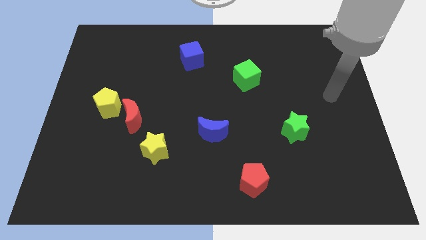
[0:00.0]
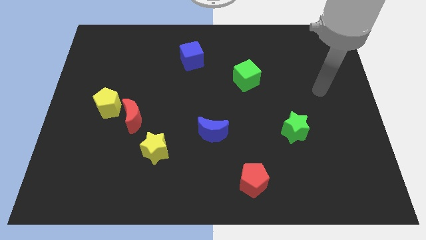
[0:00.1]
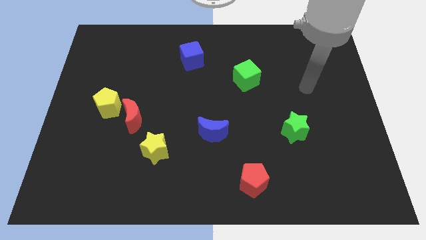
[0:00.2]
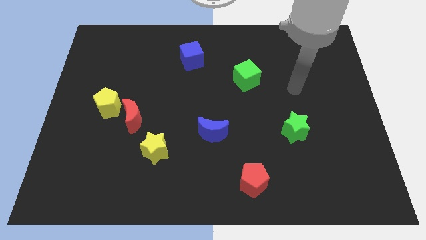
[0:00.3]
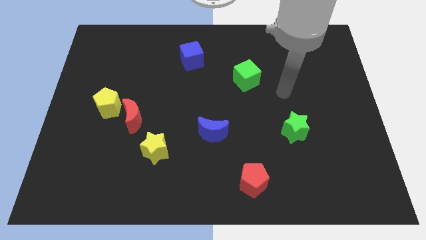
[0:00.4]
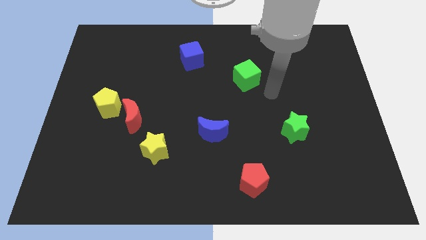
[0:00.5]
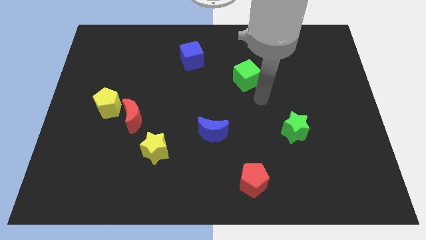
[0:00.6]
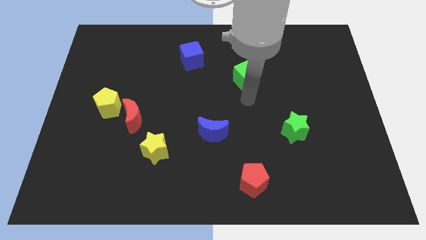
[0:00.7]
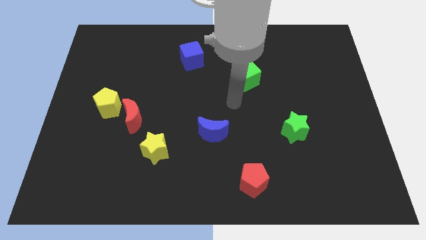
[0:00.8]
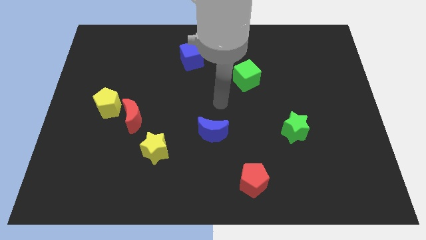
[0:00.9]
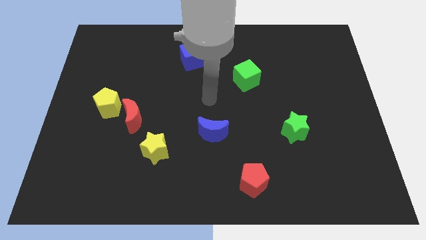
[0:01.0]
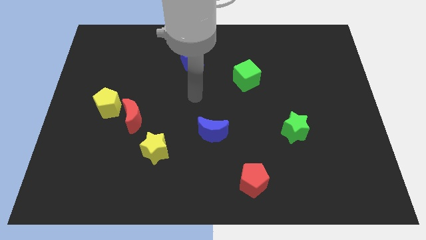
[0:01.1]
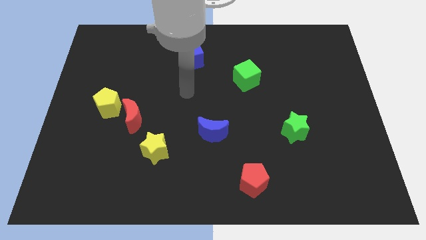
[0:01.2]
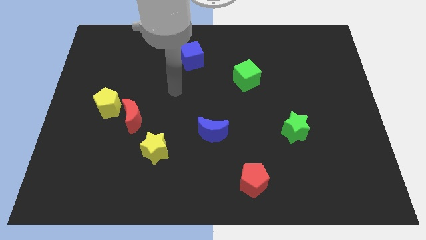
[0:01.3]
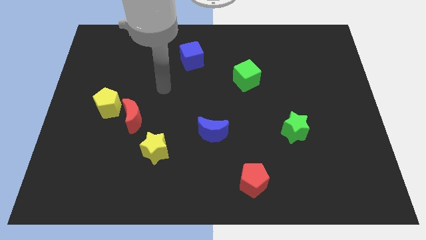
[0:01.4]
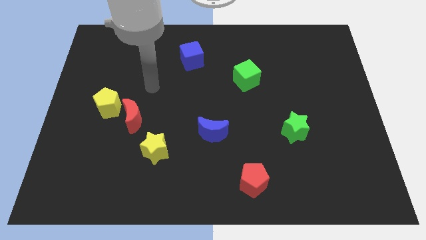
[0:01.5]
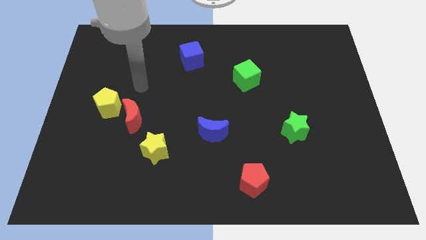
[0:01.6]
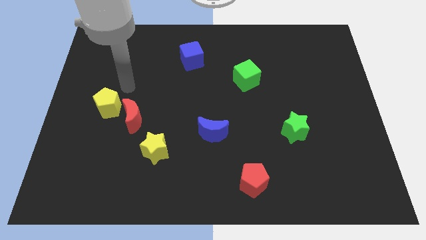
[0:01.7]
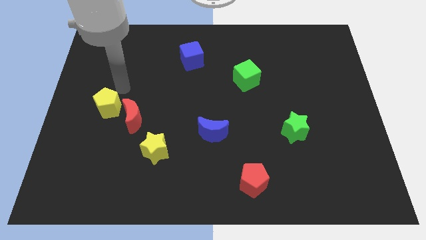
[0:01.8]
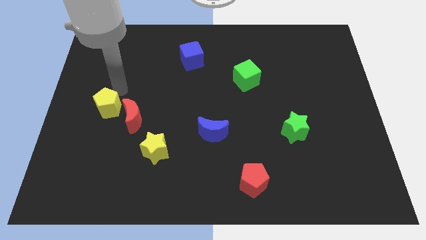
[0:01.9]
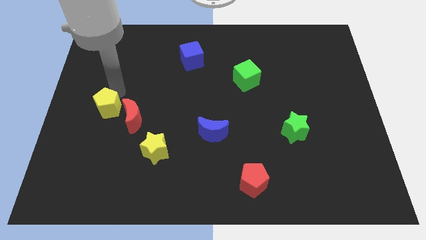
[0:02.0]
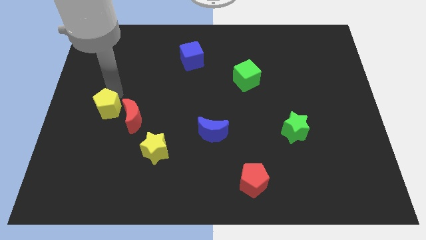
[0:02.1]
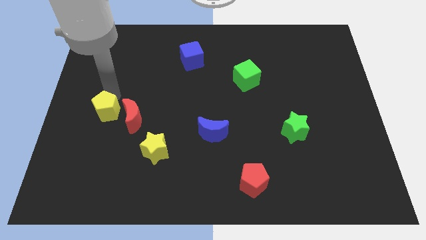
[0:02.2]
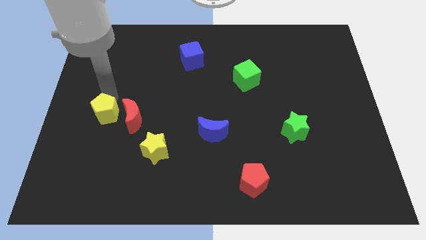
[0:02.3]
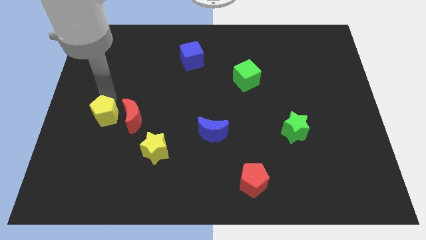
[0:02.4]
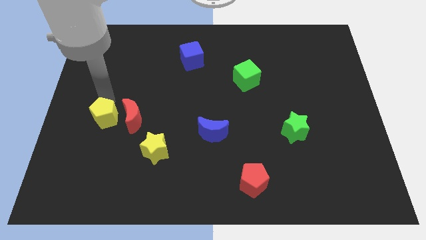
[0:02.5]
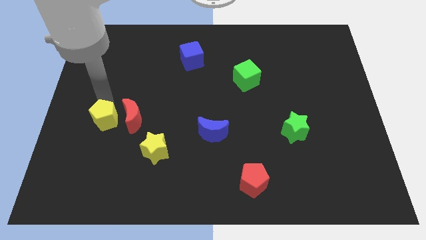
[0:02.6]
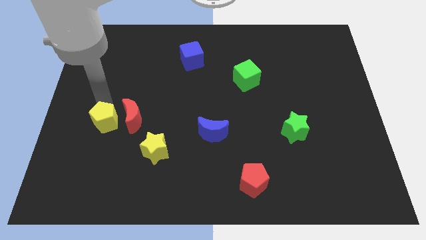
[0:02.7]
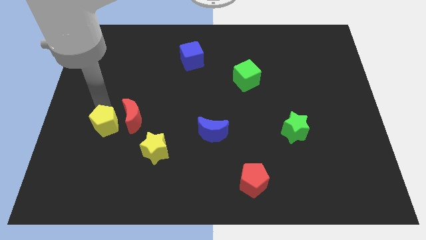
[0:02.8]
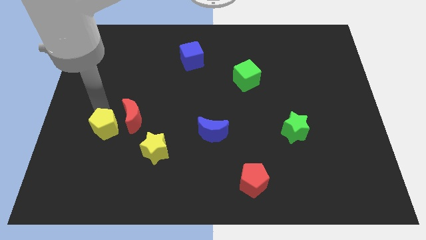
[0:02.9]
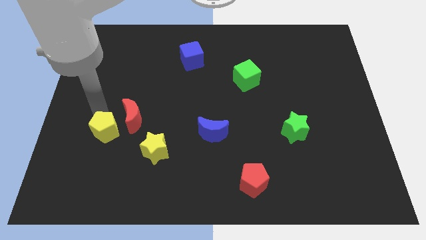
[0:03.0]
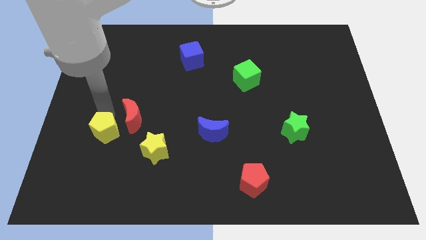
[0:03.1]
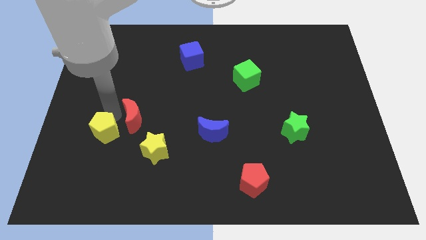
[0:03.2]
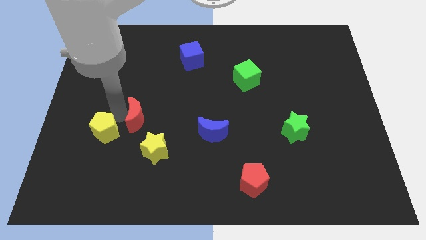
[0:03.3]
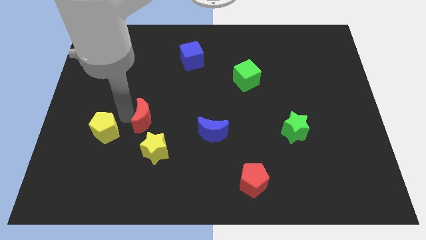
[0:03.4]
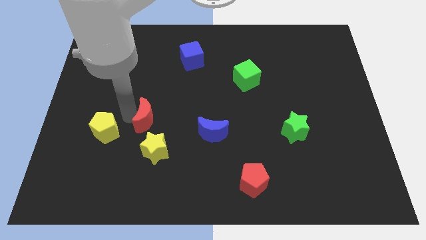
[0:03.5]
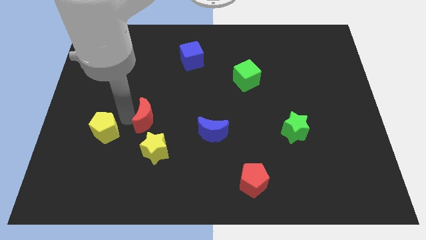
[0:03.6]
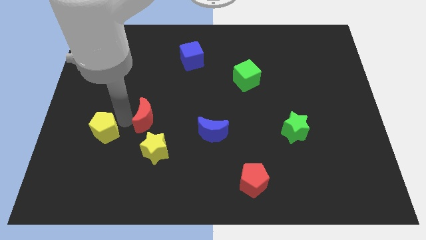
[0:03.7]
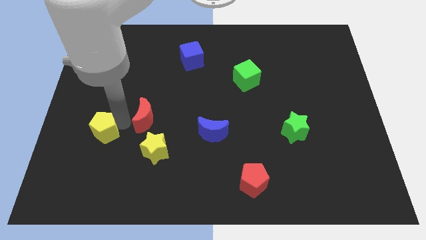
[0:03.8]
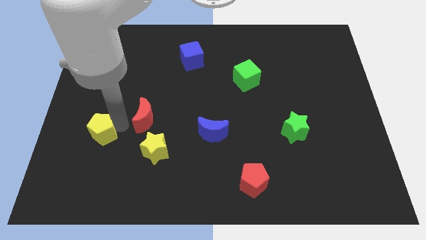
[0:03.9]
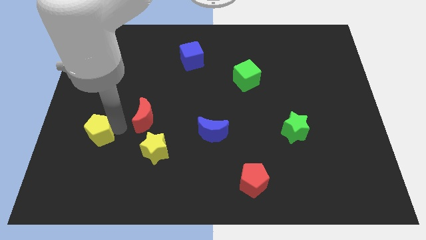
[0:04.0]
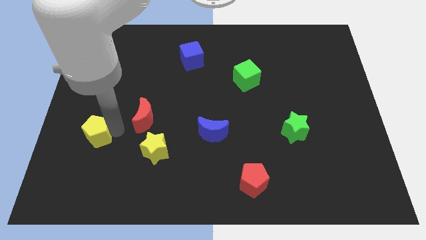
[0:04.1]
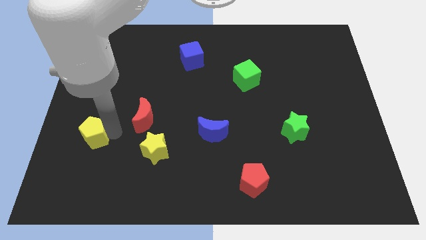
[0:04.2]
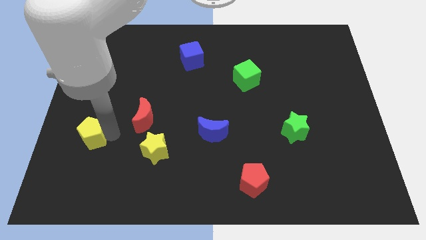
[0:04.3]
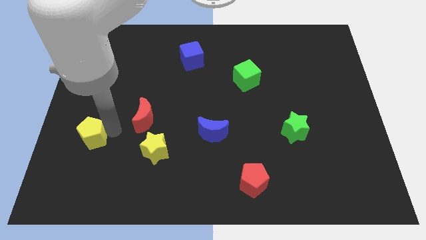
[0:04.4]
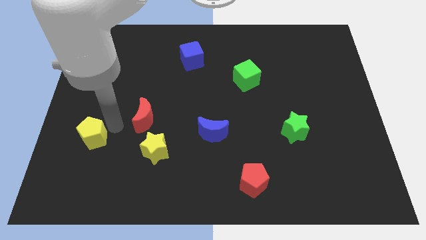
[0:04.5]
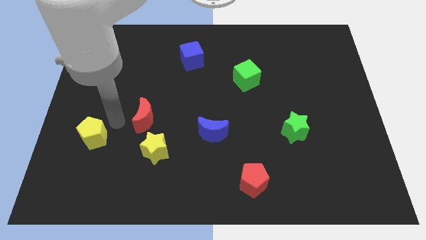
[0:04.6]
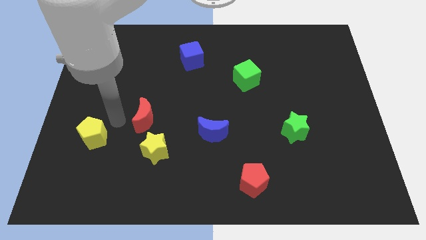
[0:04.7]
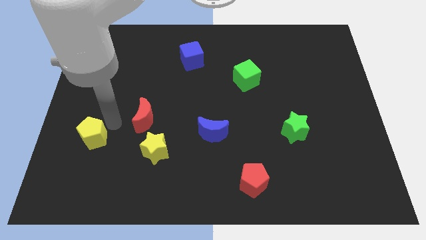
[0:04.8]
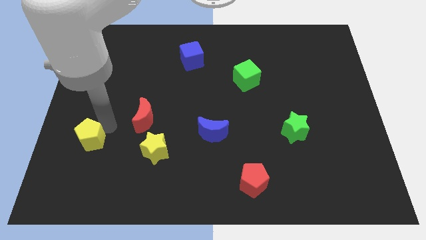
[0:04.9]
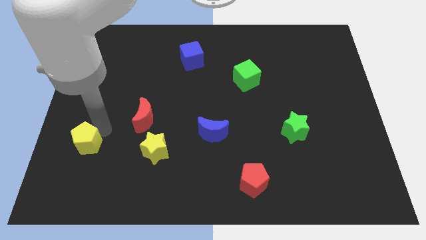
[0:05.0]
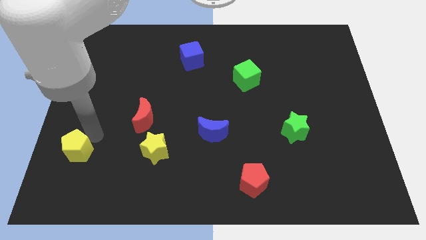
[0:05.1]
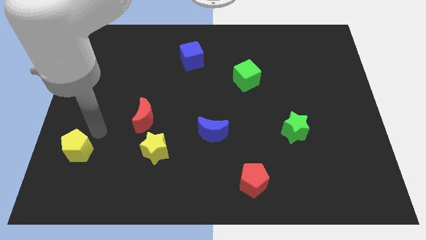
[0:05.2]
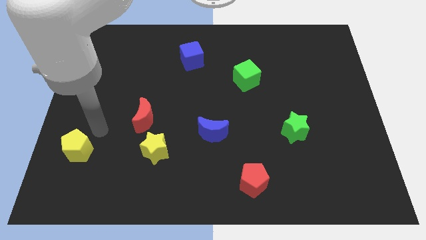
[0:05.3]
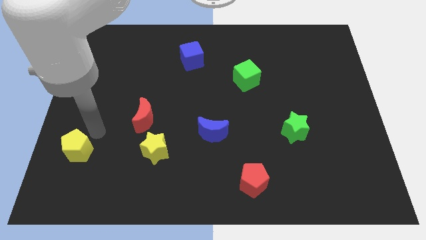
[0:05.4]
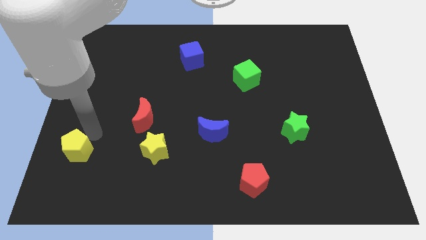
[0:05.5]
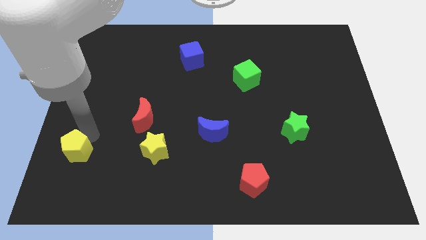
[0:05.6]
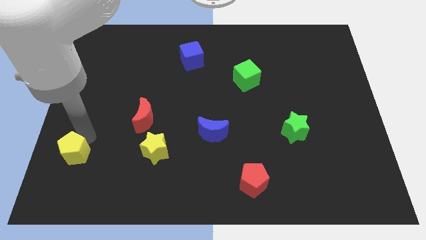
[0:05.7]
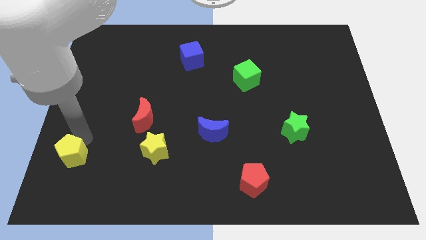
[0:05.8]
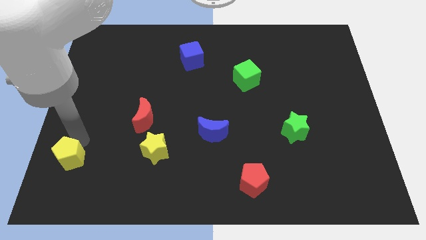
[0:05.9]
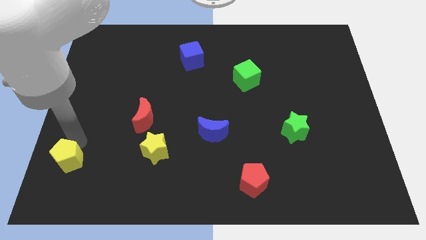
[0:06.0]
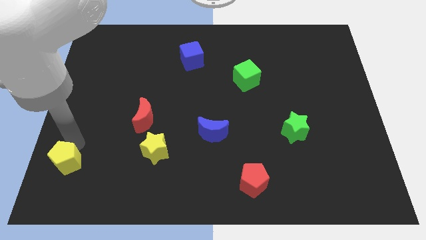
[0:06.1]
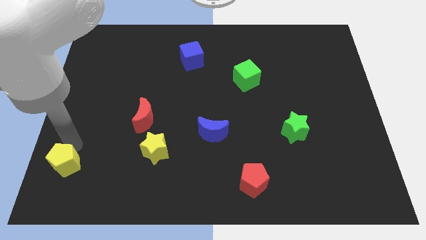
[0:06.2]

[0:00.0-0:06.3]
push the yellow pentagon to the lower left corner

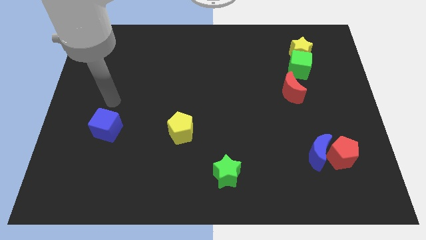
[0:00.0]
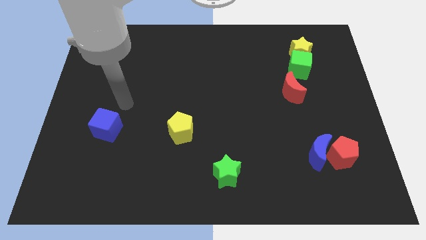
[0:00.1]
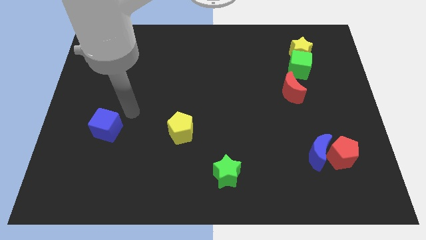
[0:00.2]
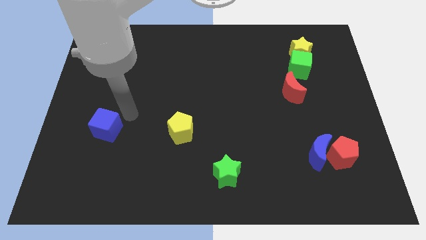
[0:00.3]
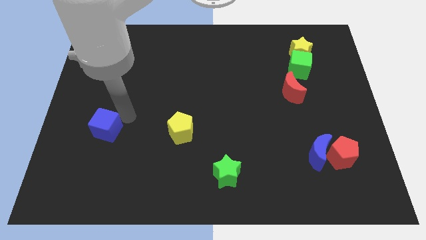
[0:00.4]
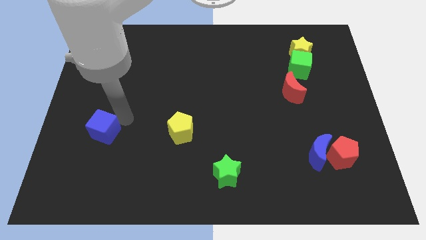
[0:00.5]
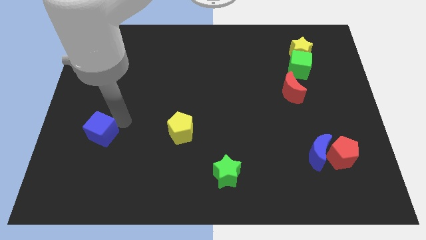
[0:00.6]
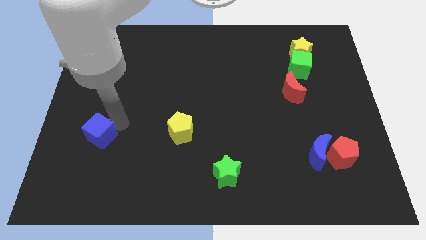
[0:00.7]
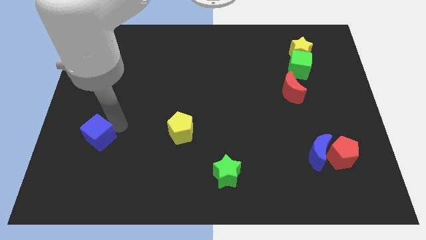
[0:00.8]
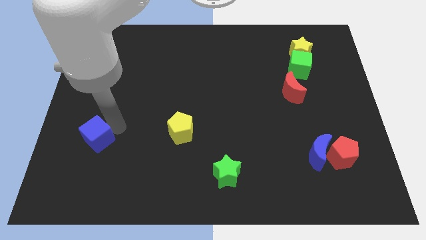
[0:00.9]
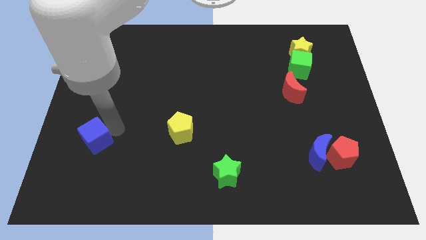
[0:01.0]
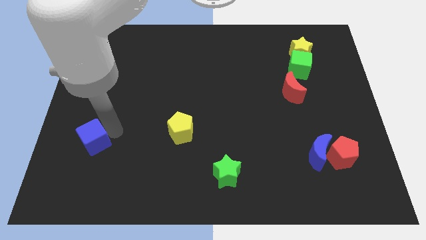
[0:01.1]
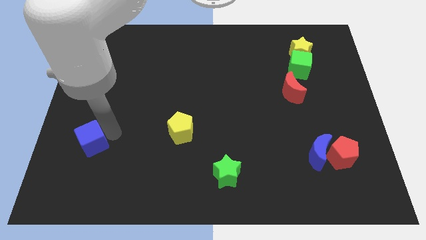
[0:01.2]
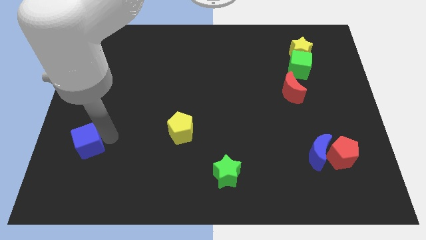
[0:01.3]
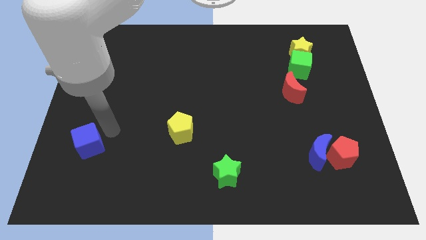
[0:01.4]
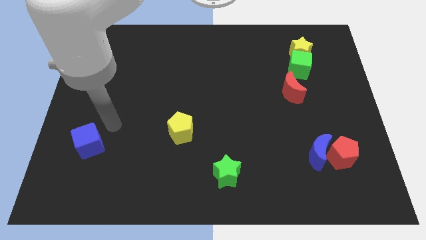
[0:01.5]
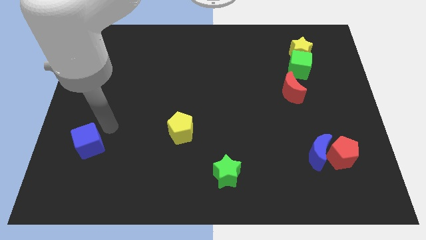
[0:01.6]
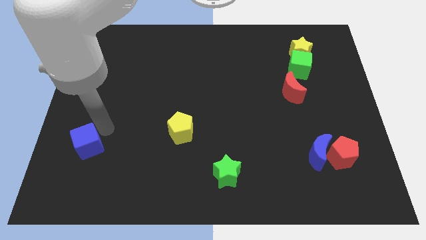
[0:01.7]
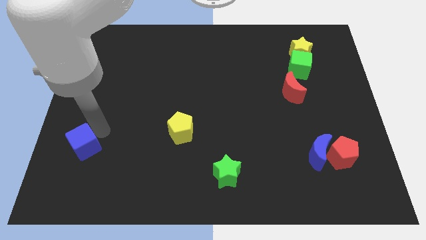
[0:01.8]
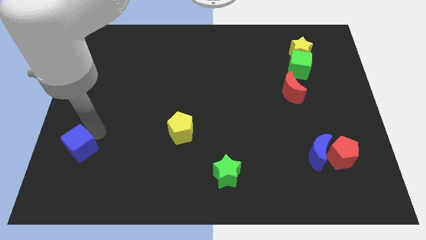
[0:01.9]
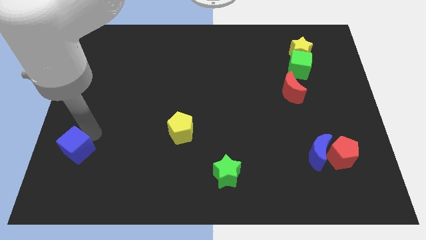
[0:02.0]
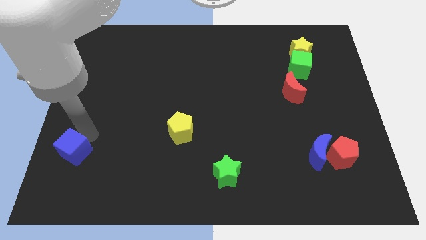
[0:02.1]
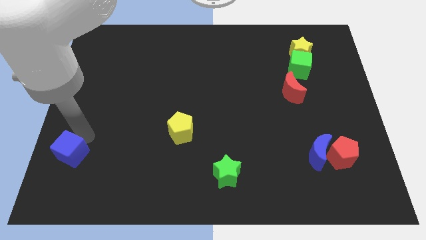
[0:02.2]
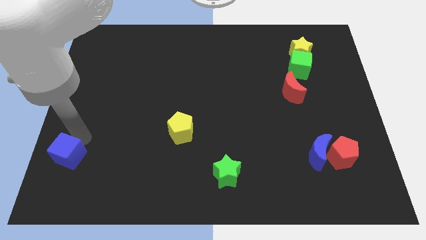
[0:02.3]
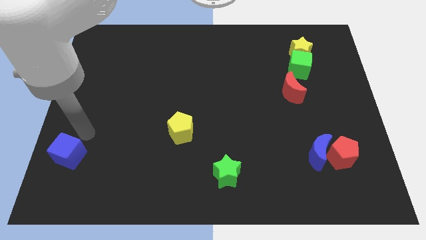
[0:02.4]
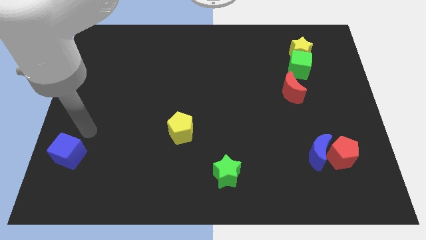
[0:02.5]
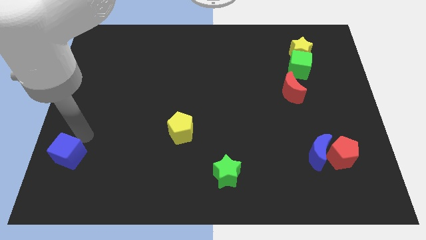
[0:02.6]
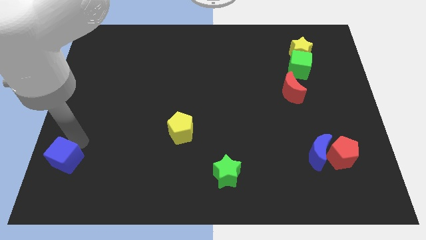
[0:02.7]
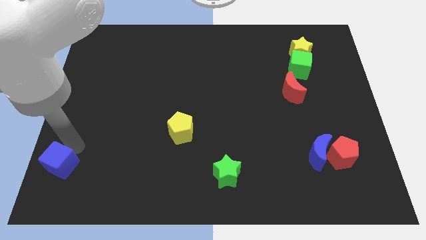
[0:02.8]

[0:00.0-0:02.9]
slide the blue cube to the bottom left
